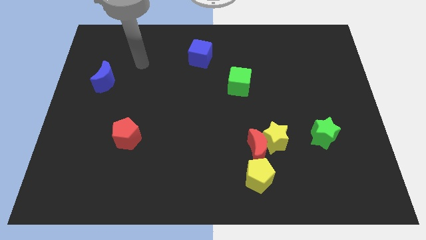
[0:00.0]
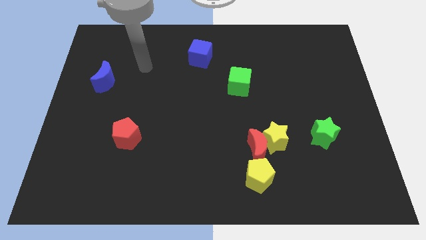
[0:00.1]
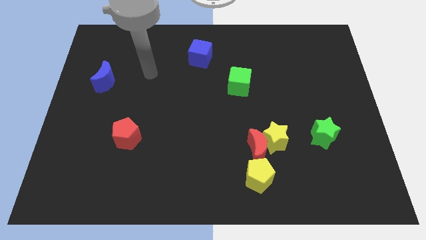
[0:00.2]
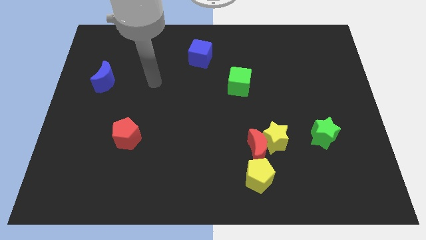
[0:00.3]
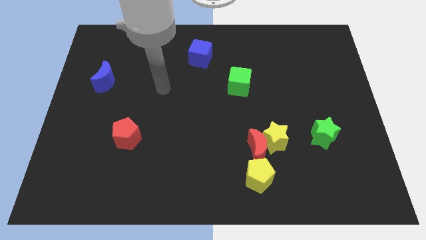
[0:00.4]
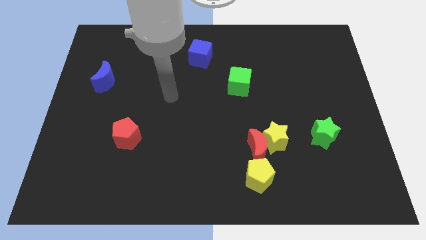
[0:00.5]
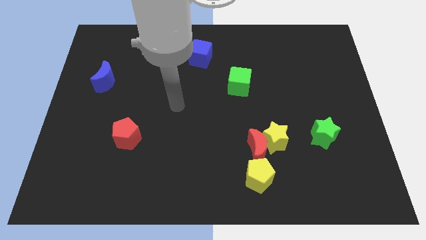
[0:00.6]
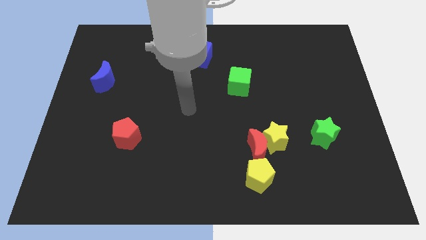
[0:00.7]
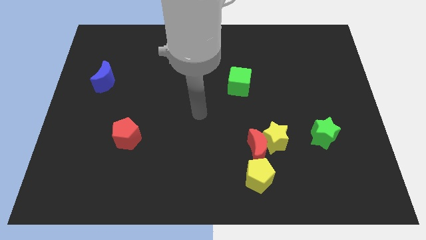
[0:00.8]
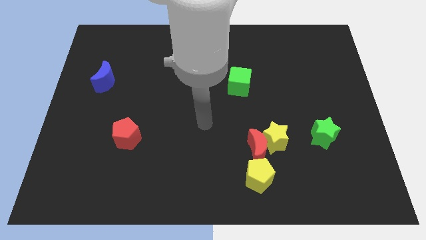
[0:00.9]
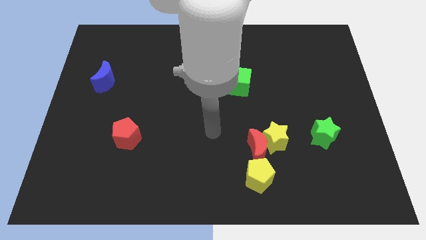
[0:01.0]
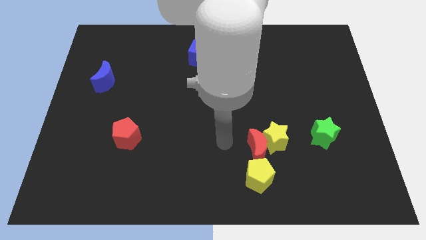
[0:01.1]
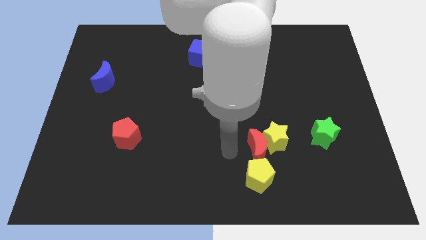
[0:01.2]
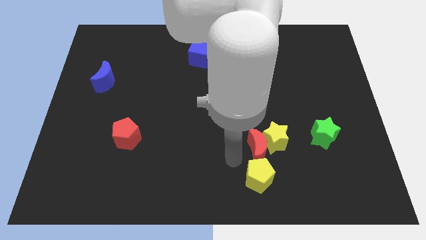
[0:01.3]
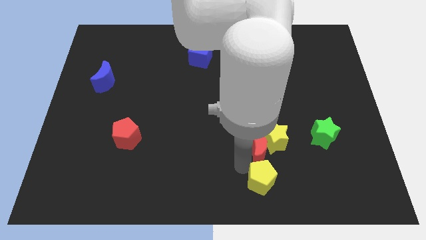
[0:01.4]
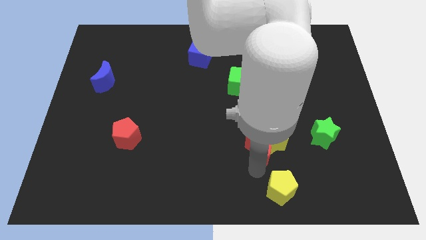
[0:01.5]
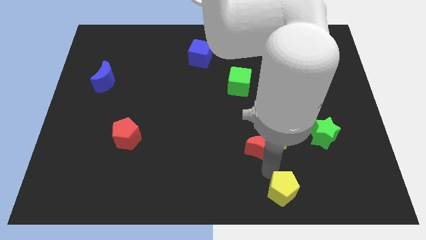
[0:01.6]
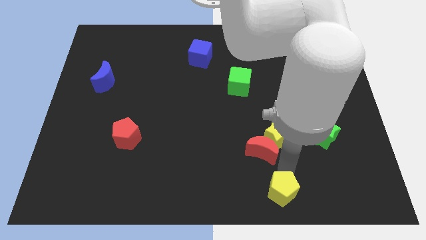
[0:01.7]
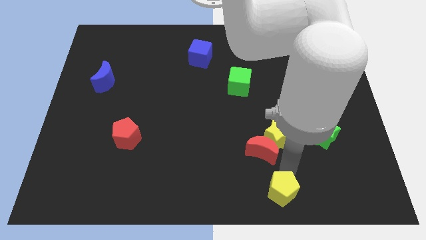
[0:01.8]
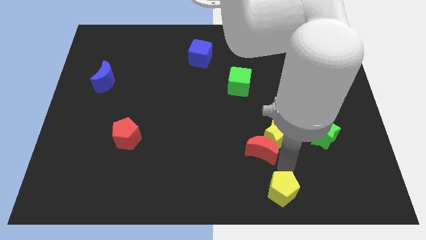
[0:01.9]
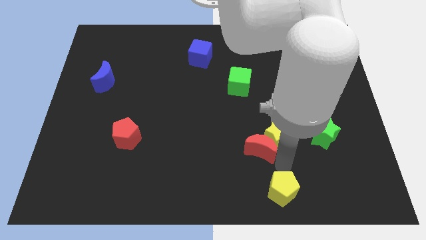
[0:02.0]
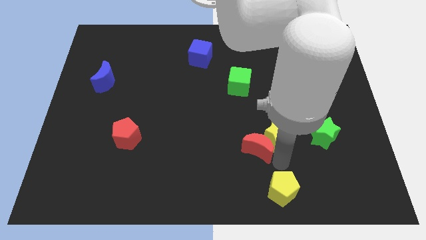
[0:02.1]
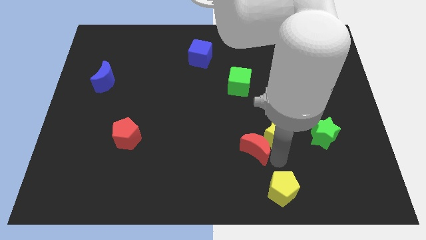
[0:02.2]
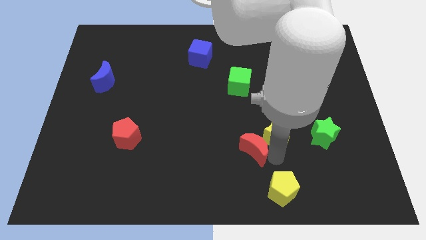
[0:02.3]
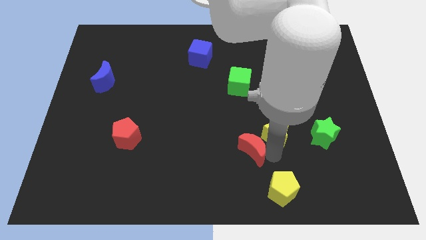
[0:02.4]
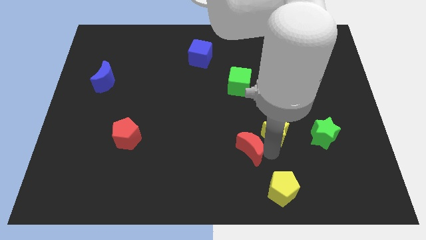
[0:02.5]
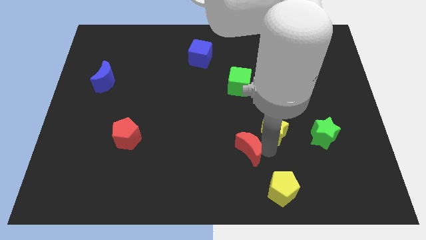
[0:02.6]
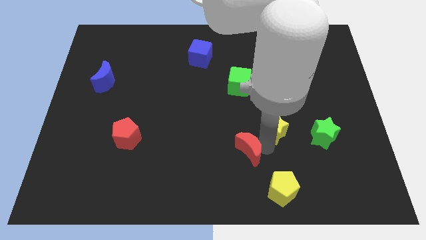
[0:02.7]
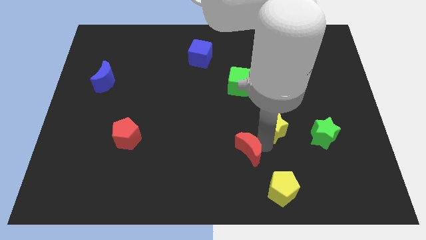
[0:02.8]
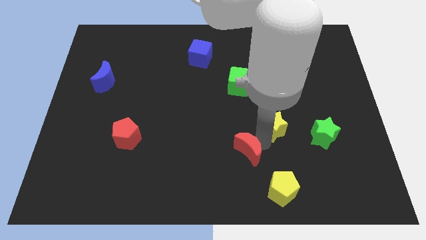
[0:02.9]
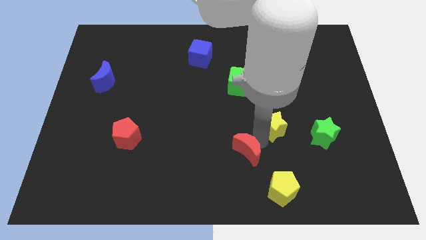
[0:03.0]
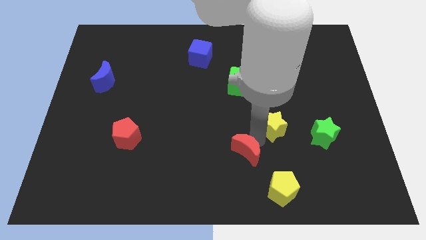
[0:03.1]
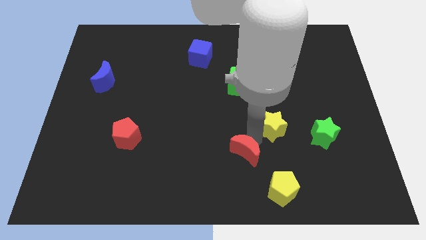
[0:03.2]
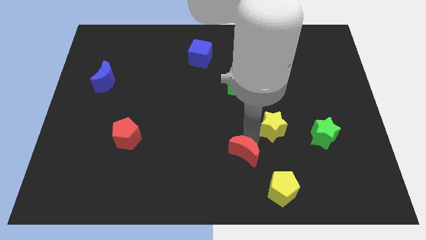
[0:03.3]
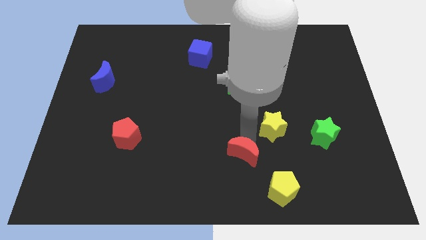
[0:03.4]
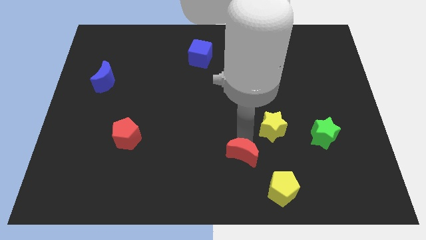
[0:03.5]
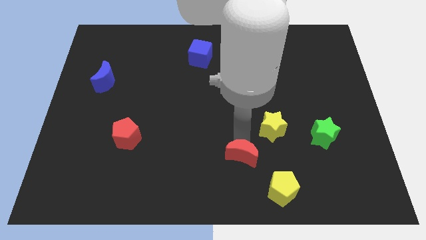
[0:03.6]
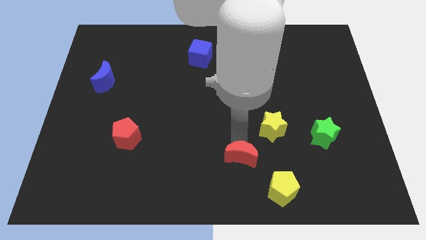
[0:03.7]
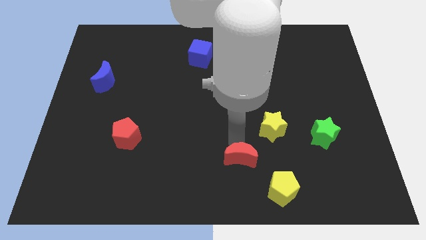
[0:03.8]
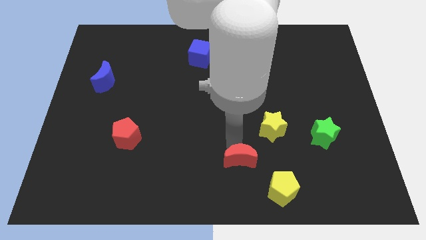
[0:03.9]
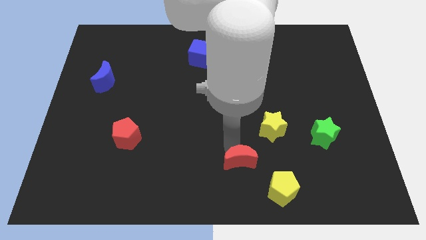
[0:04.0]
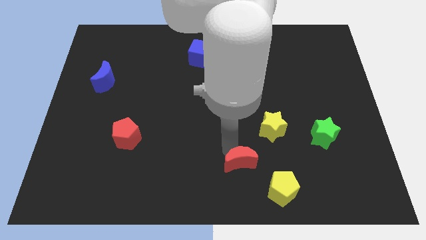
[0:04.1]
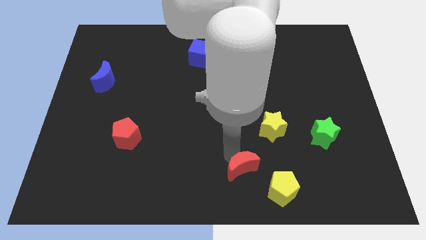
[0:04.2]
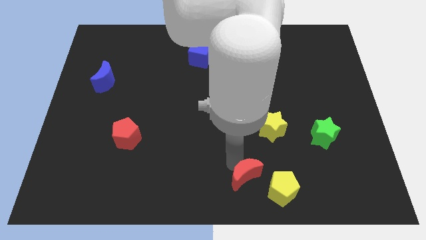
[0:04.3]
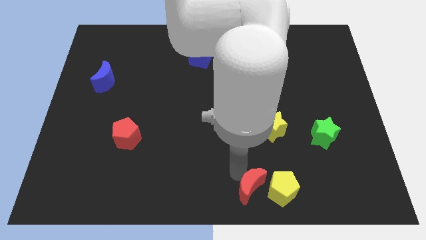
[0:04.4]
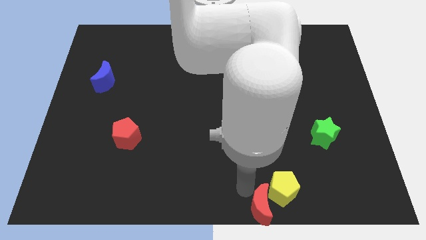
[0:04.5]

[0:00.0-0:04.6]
move the red moon away from the yellow star and yellow pentagon

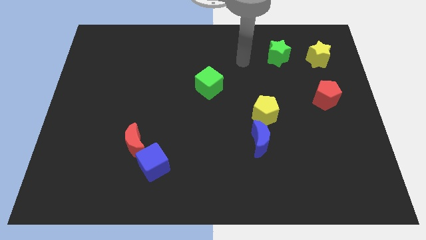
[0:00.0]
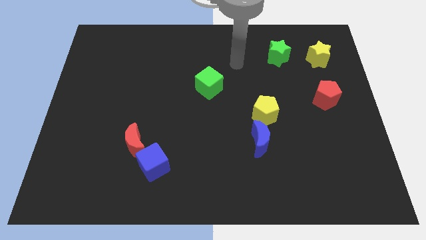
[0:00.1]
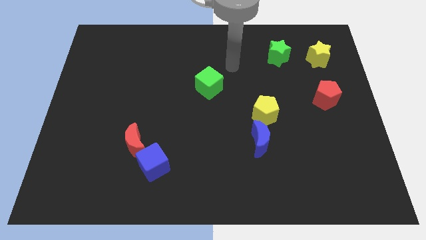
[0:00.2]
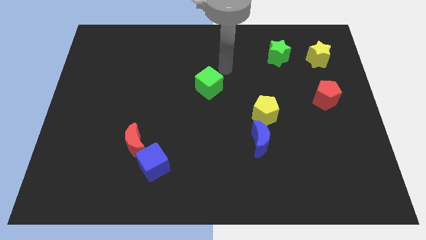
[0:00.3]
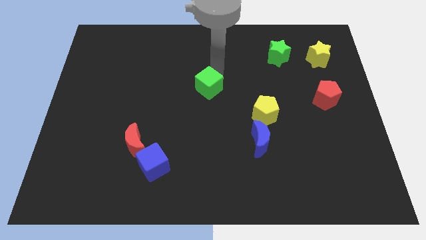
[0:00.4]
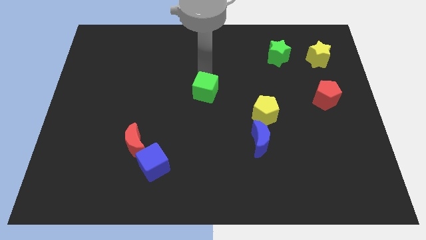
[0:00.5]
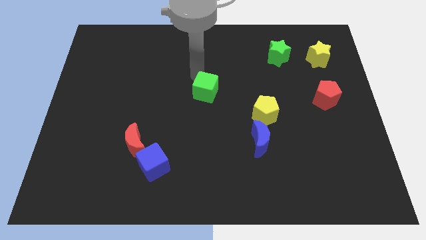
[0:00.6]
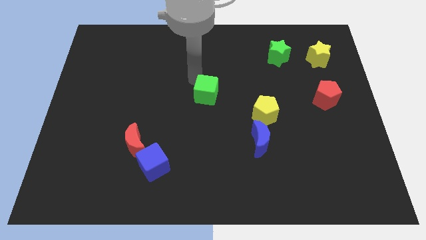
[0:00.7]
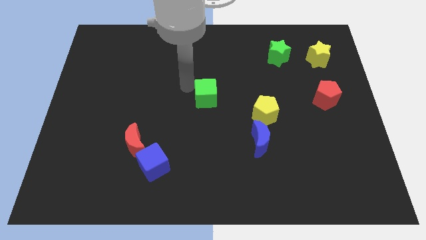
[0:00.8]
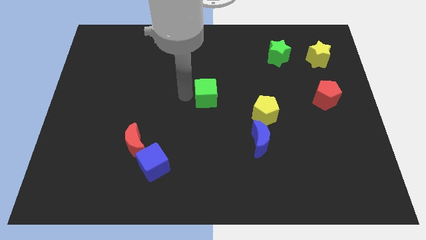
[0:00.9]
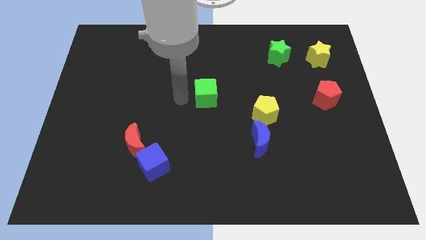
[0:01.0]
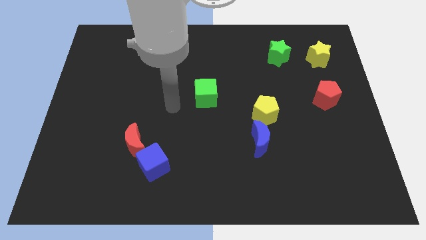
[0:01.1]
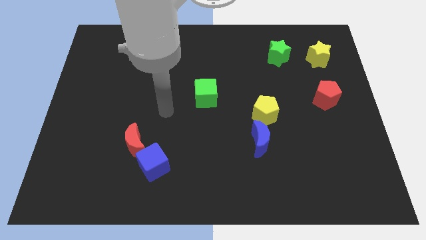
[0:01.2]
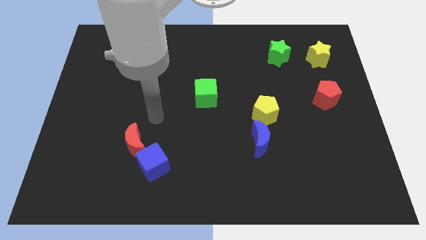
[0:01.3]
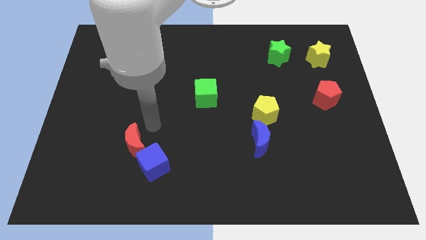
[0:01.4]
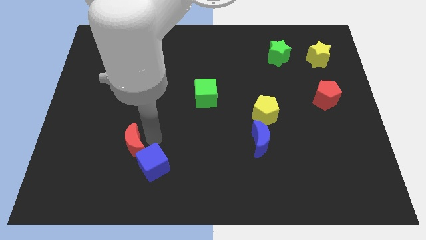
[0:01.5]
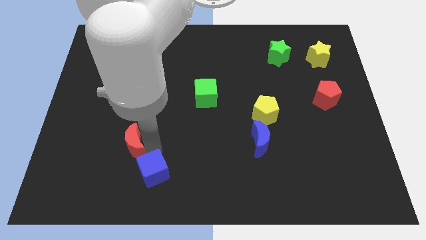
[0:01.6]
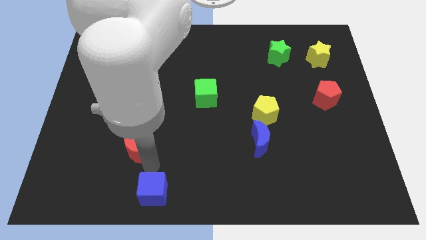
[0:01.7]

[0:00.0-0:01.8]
pull the red moon apart from the blue cube

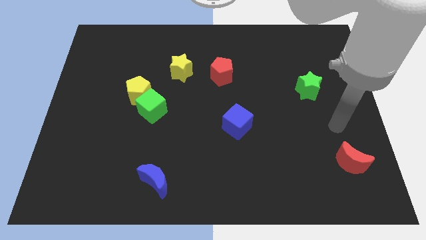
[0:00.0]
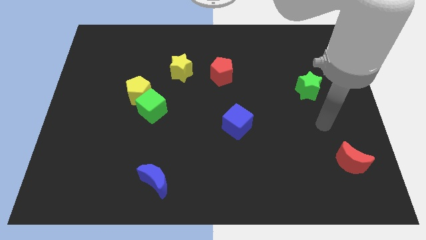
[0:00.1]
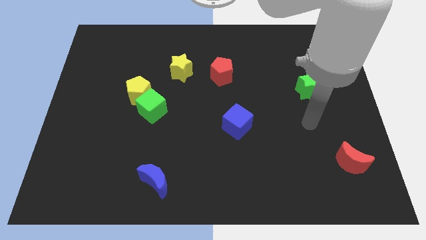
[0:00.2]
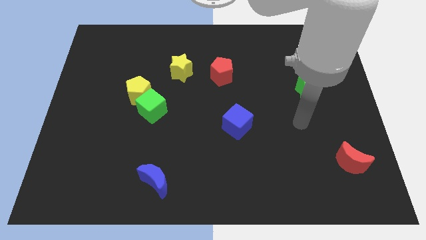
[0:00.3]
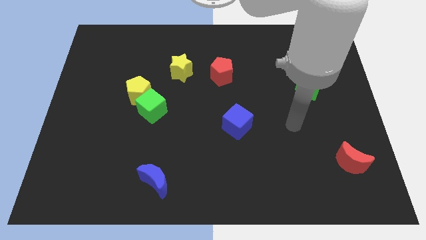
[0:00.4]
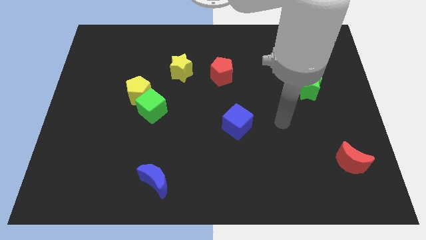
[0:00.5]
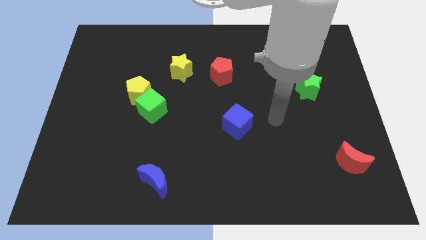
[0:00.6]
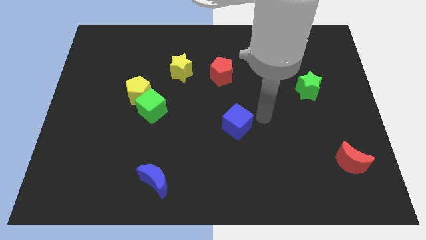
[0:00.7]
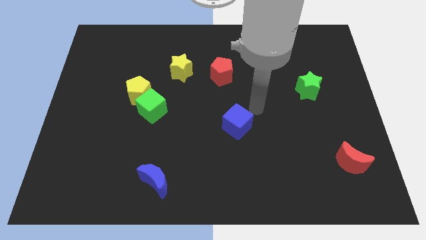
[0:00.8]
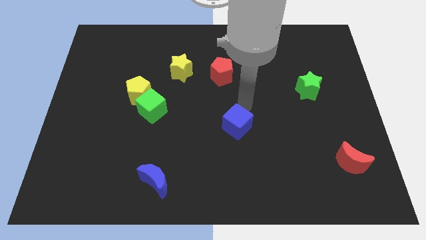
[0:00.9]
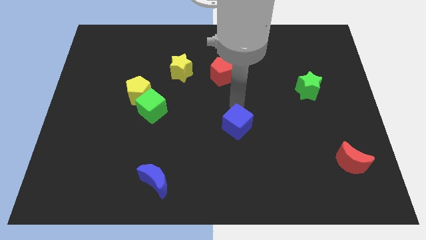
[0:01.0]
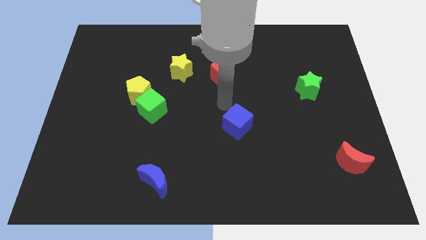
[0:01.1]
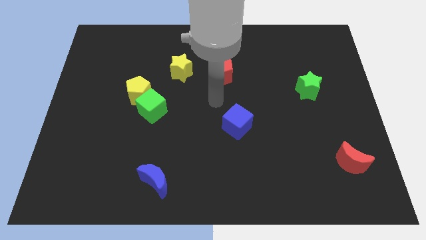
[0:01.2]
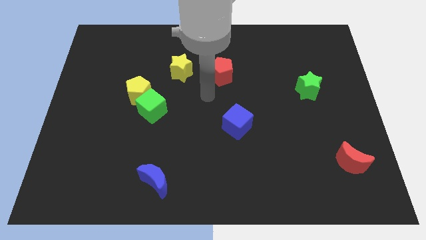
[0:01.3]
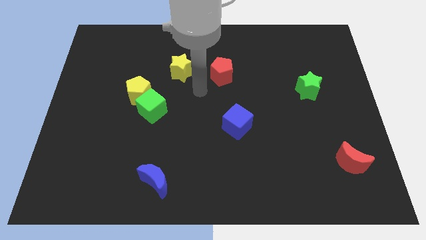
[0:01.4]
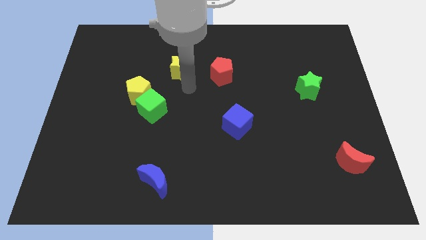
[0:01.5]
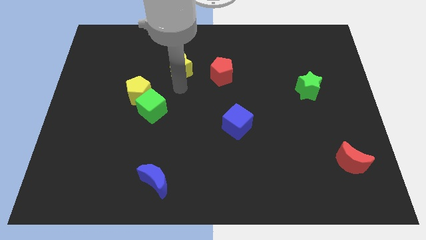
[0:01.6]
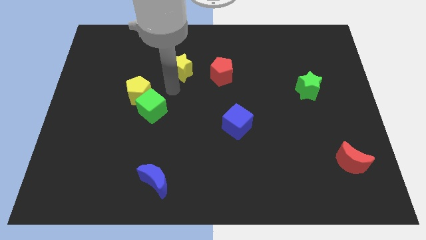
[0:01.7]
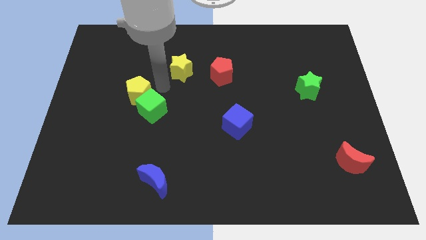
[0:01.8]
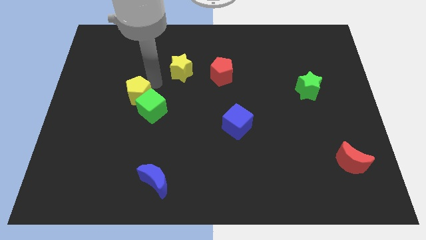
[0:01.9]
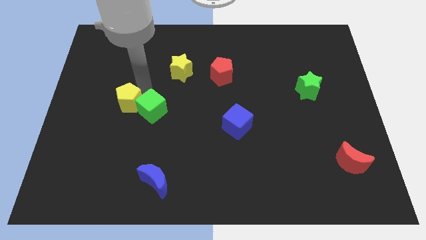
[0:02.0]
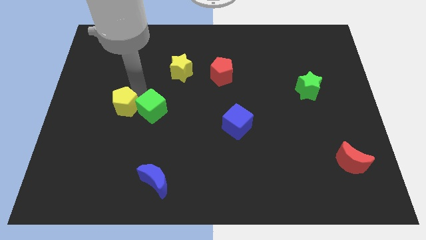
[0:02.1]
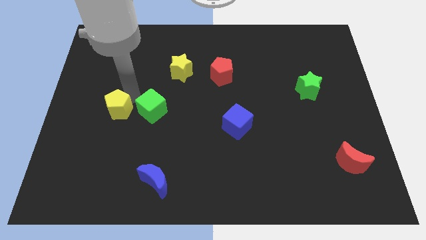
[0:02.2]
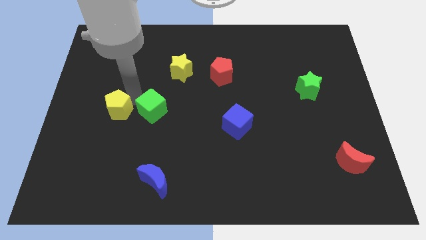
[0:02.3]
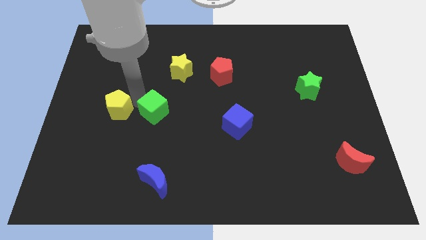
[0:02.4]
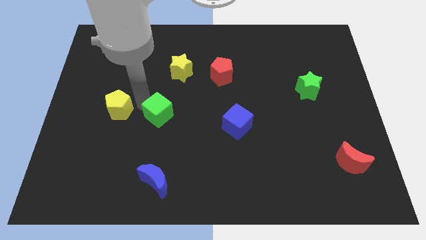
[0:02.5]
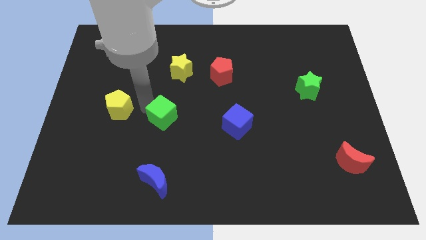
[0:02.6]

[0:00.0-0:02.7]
pull the green cube apart from the yellow pentagon

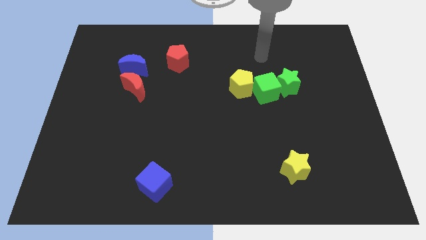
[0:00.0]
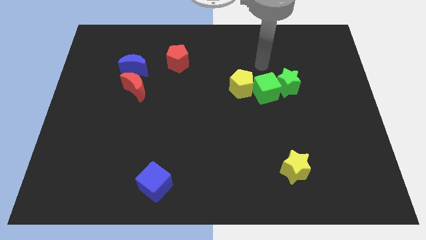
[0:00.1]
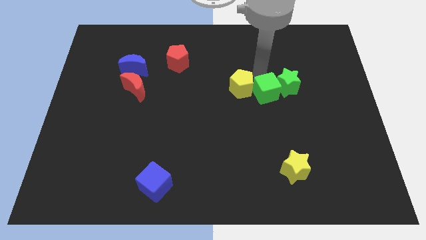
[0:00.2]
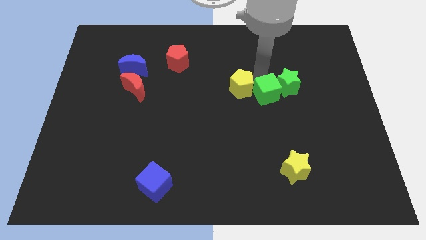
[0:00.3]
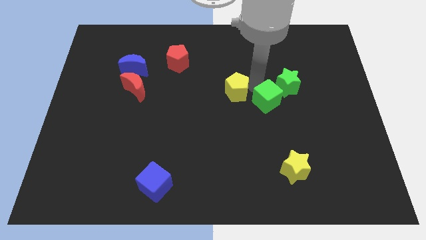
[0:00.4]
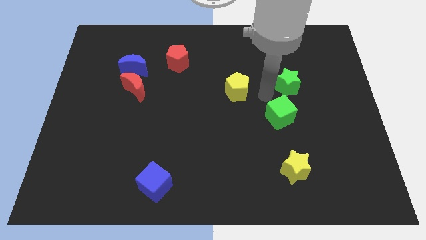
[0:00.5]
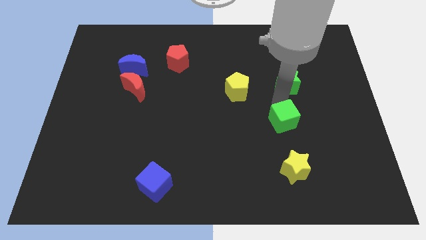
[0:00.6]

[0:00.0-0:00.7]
pull the green star apart from the green cube
